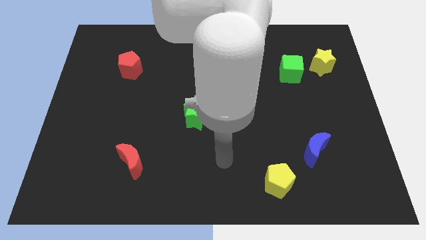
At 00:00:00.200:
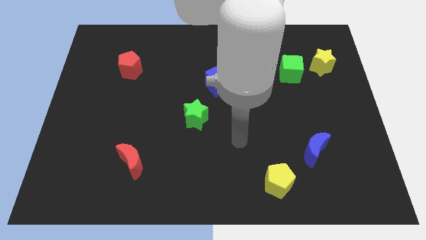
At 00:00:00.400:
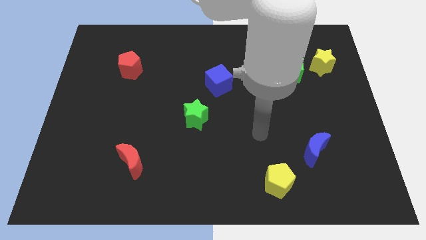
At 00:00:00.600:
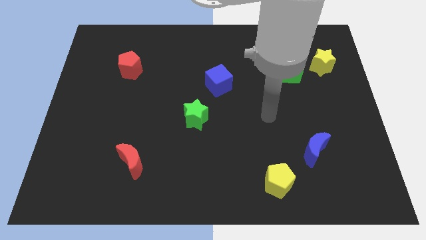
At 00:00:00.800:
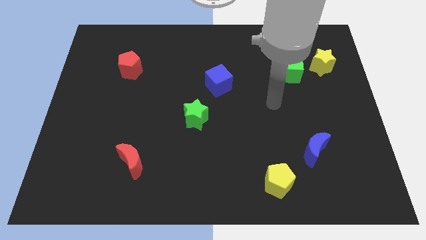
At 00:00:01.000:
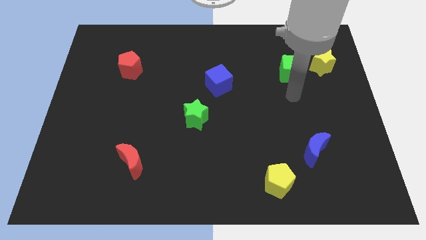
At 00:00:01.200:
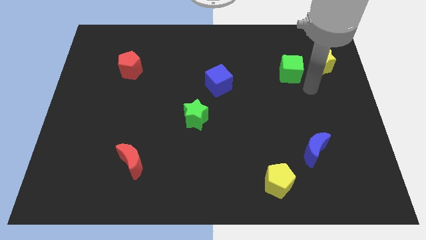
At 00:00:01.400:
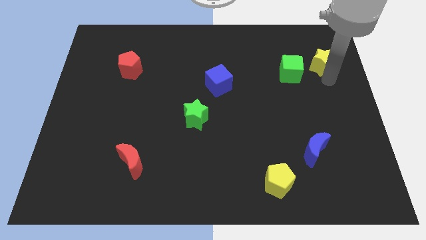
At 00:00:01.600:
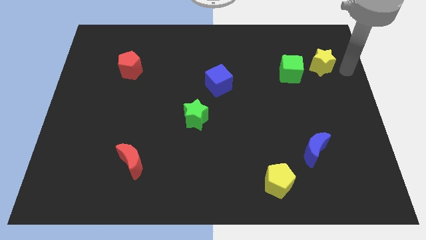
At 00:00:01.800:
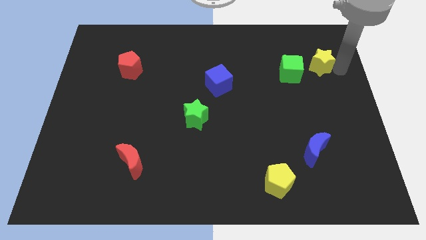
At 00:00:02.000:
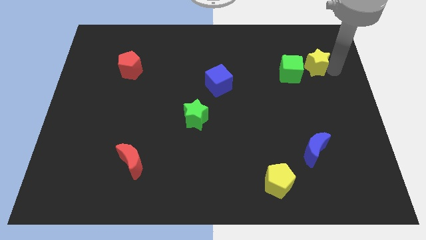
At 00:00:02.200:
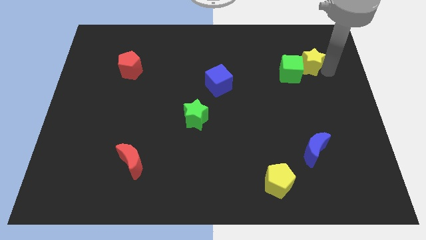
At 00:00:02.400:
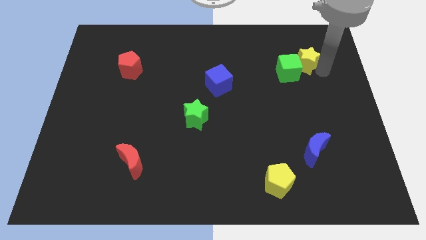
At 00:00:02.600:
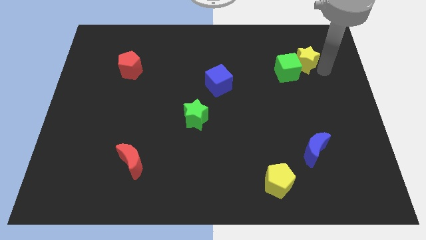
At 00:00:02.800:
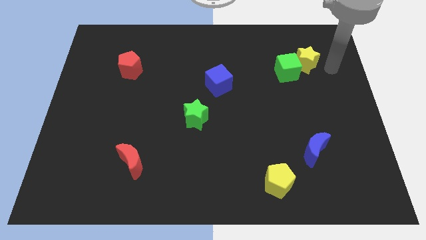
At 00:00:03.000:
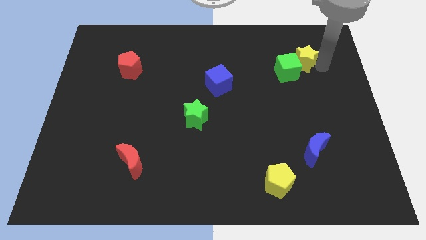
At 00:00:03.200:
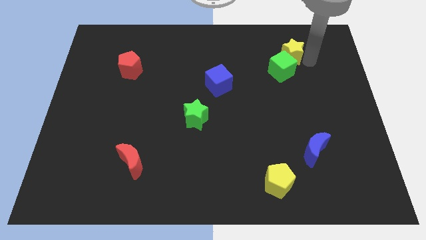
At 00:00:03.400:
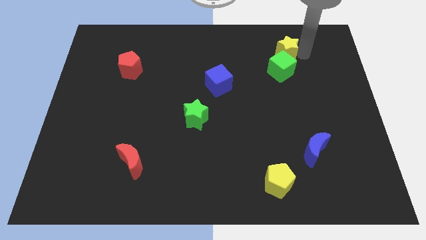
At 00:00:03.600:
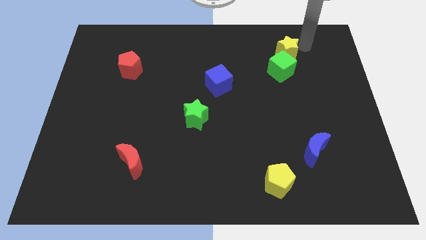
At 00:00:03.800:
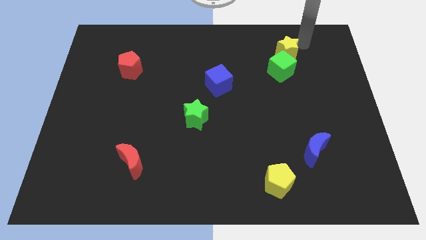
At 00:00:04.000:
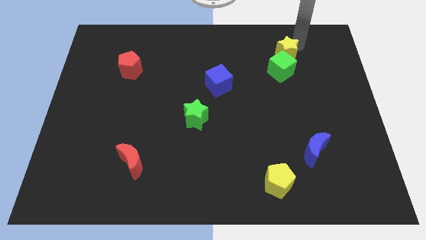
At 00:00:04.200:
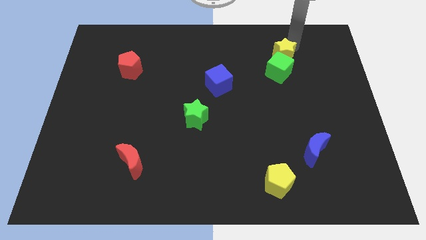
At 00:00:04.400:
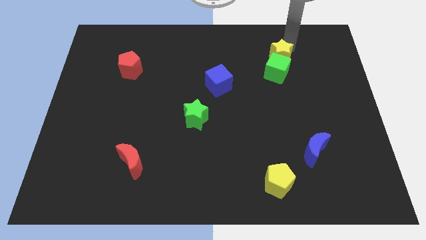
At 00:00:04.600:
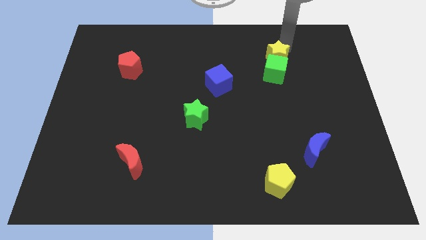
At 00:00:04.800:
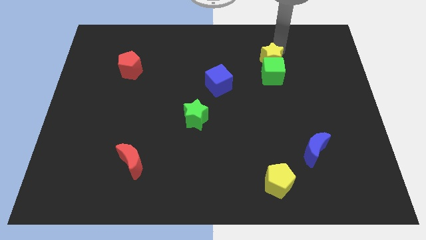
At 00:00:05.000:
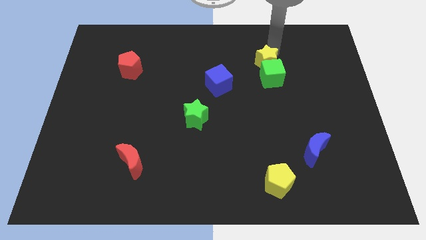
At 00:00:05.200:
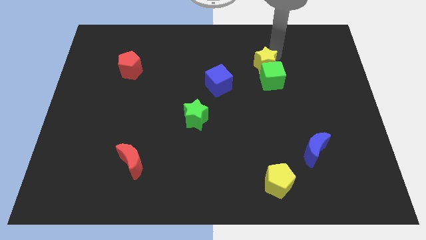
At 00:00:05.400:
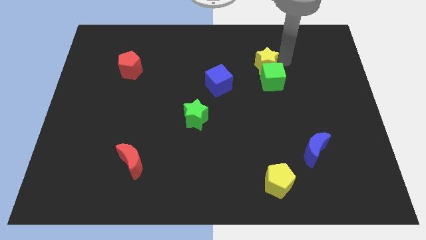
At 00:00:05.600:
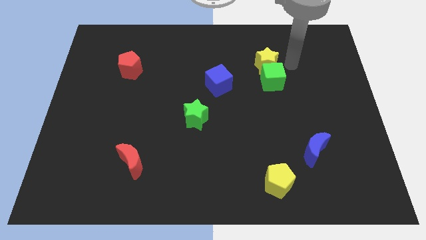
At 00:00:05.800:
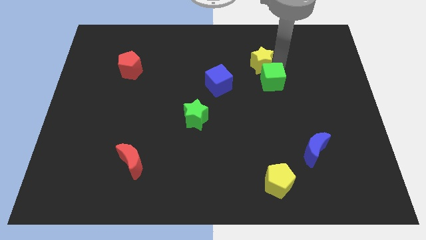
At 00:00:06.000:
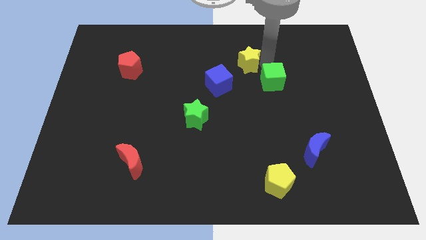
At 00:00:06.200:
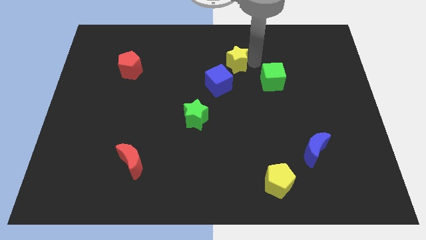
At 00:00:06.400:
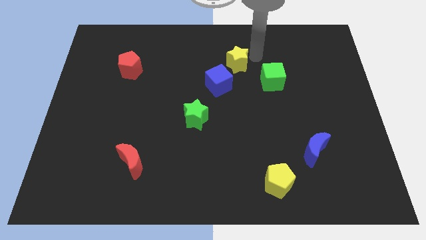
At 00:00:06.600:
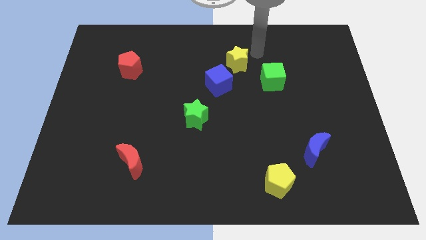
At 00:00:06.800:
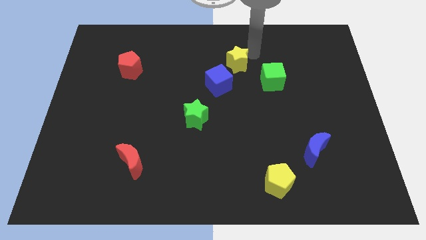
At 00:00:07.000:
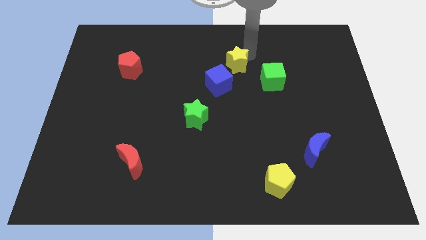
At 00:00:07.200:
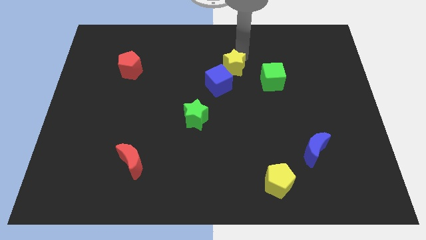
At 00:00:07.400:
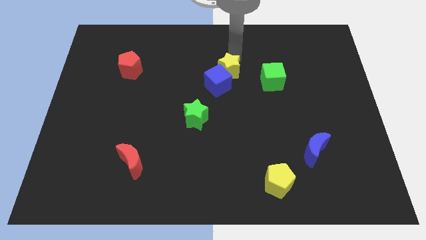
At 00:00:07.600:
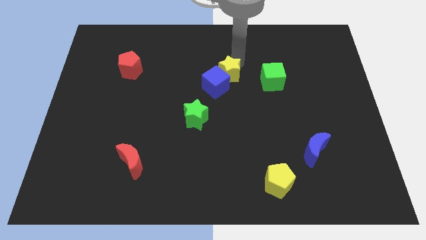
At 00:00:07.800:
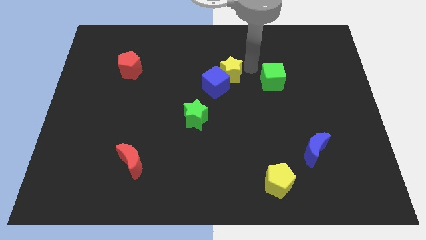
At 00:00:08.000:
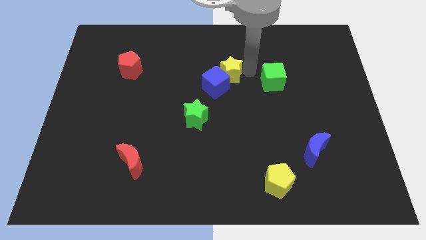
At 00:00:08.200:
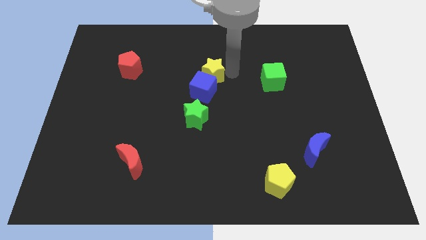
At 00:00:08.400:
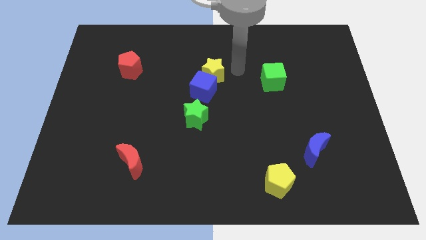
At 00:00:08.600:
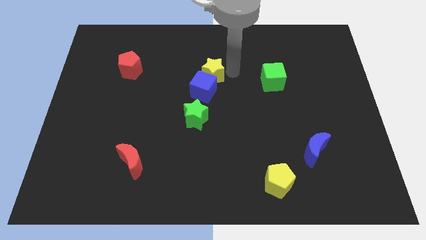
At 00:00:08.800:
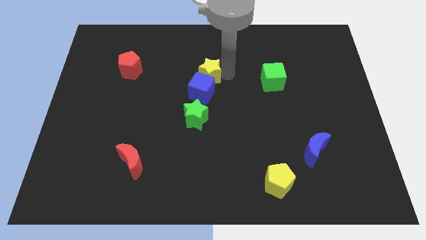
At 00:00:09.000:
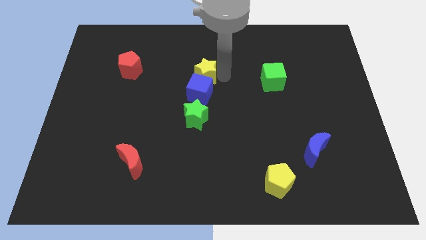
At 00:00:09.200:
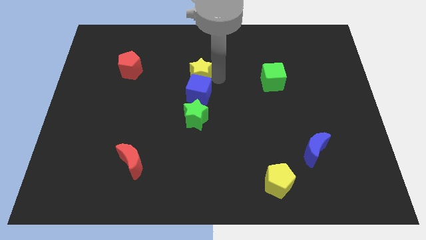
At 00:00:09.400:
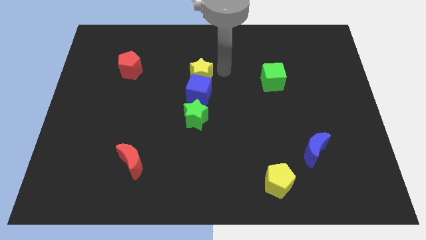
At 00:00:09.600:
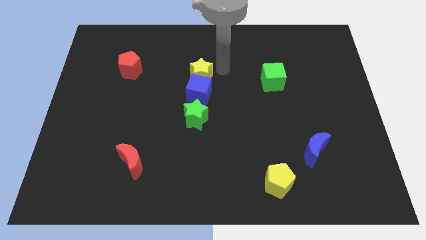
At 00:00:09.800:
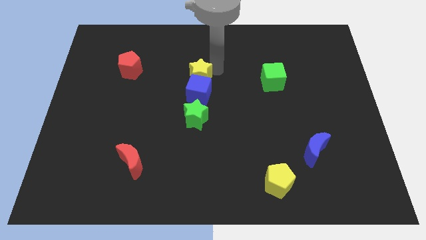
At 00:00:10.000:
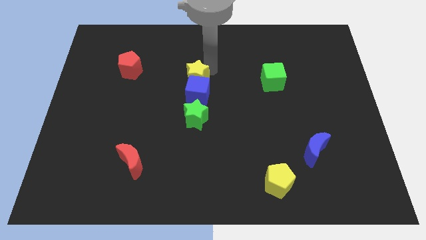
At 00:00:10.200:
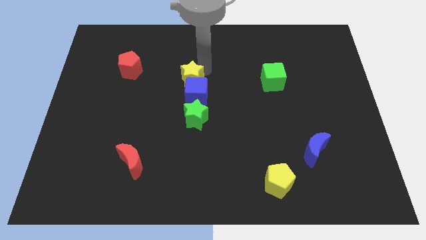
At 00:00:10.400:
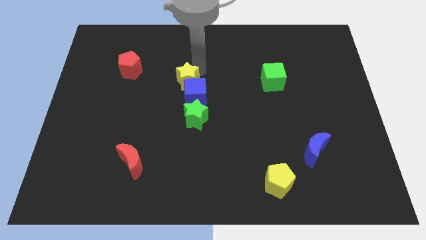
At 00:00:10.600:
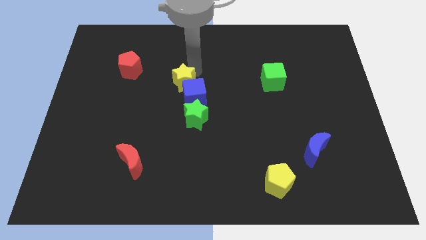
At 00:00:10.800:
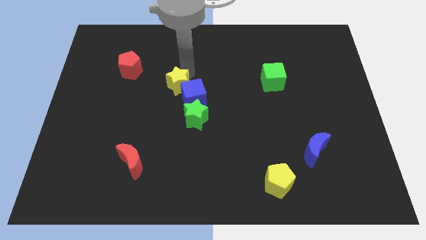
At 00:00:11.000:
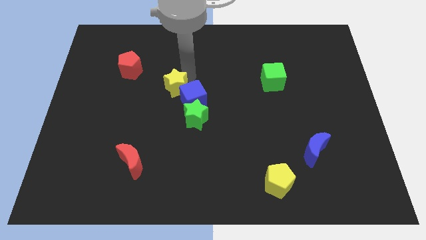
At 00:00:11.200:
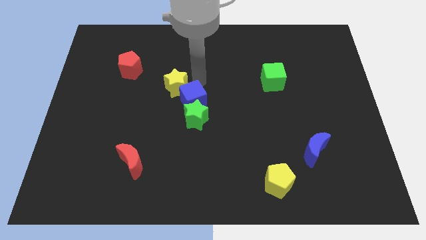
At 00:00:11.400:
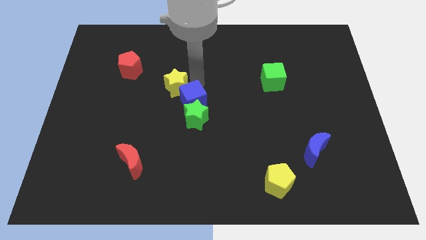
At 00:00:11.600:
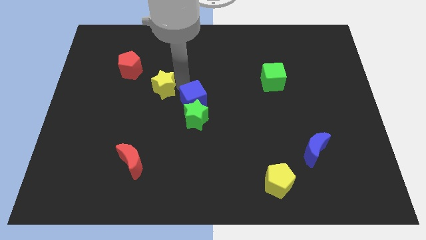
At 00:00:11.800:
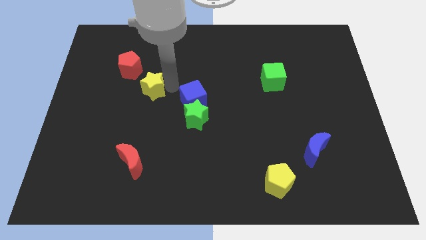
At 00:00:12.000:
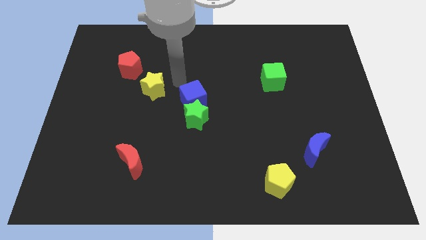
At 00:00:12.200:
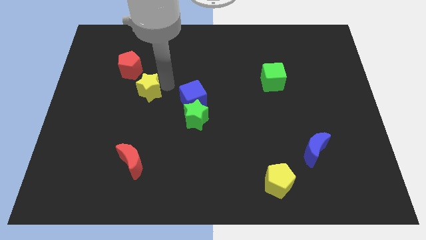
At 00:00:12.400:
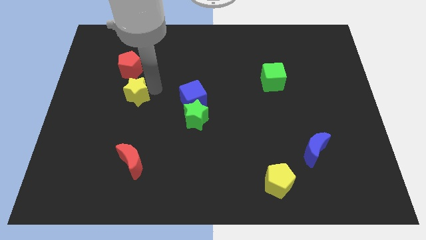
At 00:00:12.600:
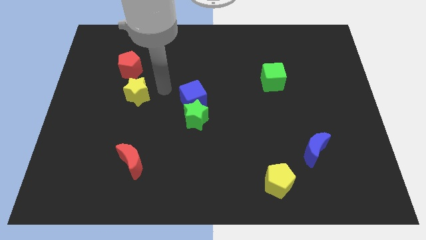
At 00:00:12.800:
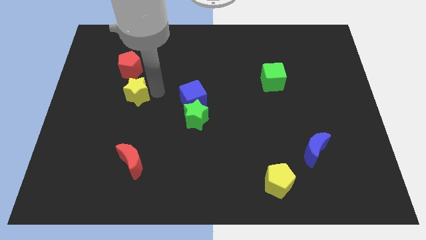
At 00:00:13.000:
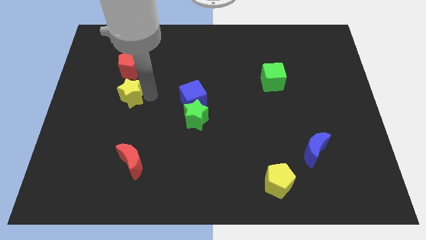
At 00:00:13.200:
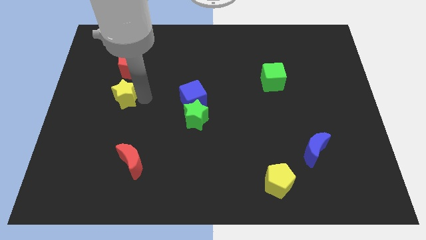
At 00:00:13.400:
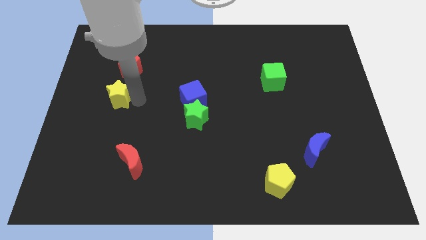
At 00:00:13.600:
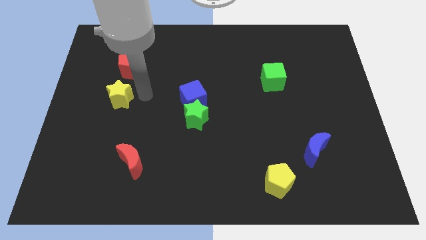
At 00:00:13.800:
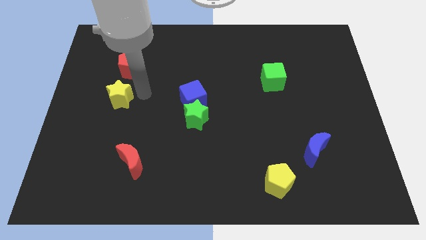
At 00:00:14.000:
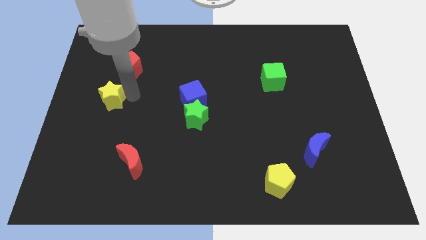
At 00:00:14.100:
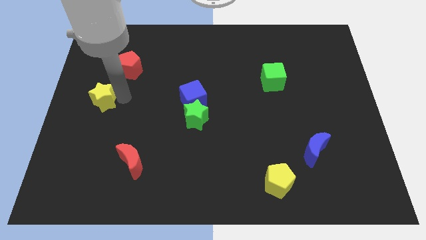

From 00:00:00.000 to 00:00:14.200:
move the yellow star to the left side of the board
